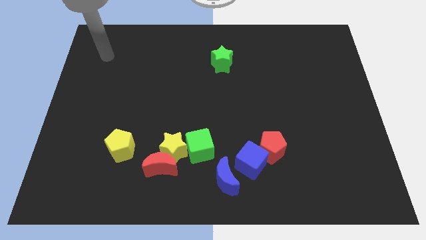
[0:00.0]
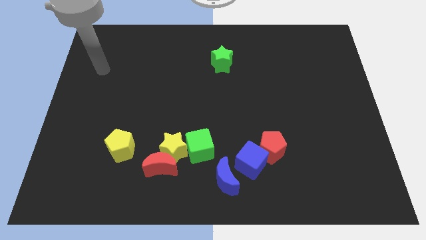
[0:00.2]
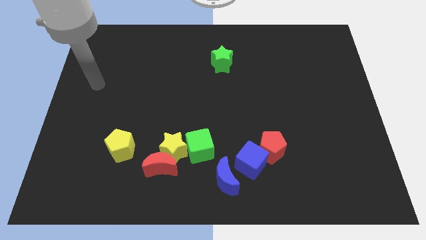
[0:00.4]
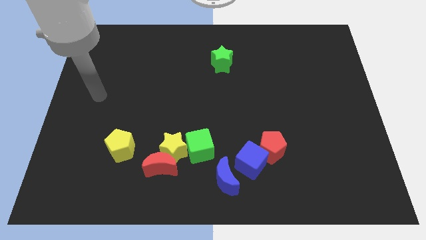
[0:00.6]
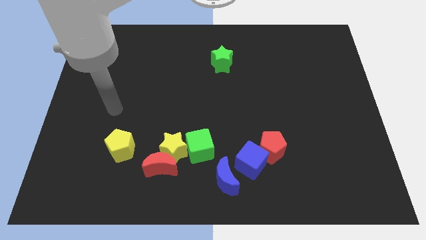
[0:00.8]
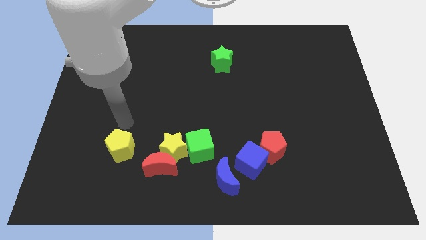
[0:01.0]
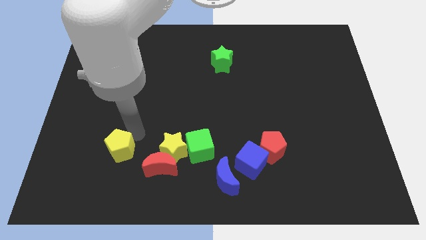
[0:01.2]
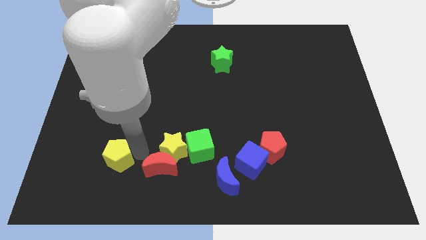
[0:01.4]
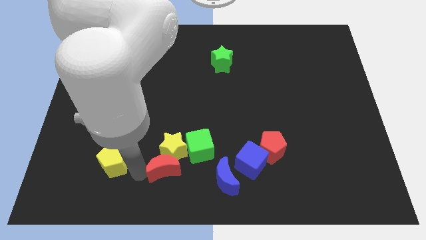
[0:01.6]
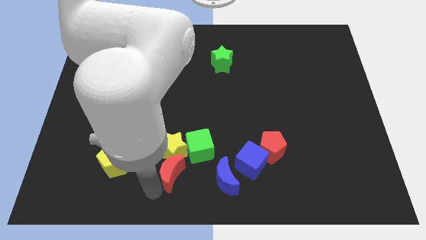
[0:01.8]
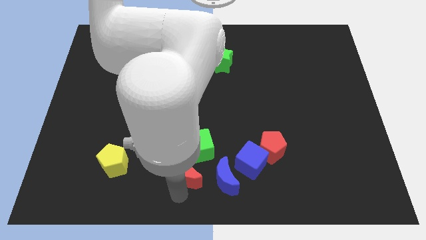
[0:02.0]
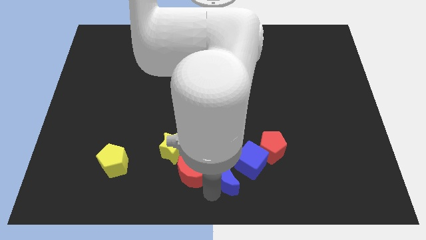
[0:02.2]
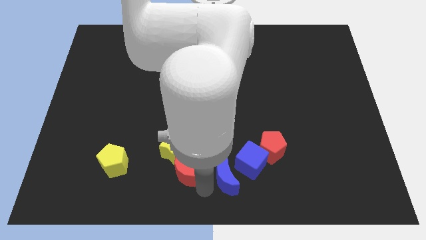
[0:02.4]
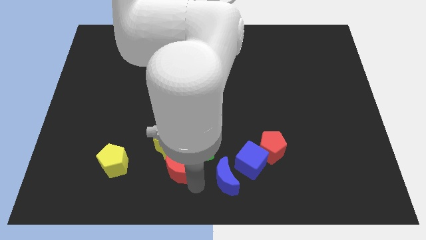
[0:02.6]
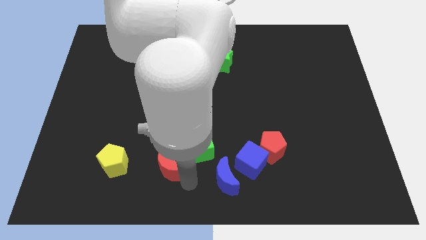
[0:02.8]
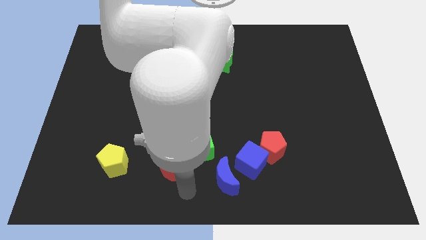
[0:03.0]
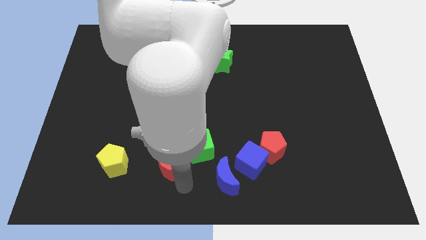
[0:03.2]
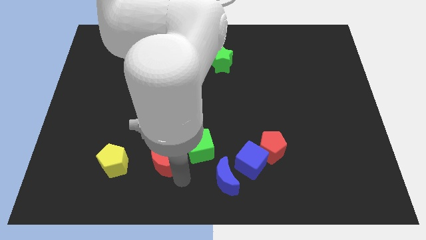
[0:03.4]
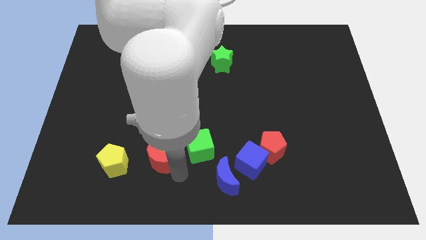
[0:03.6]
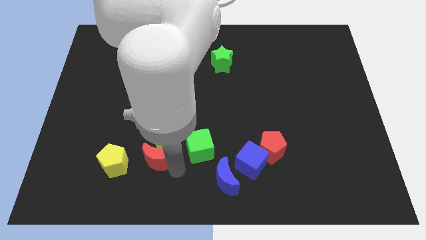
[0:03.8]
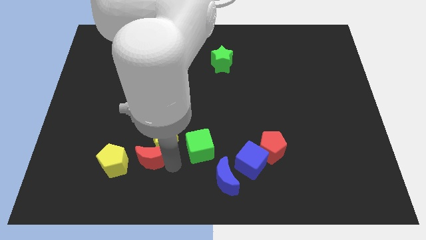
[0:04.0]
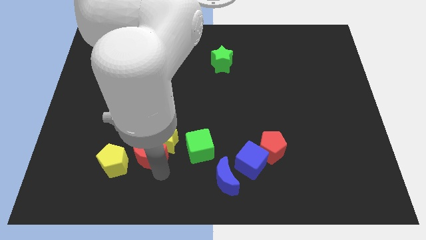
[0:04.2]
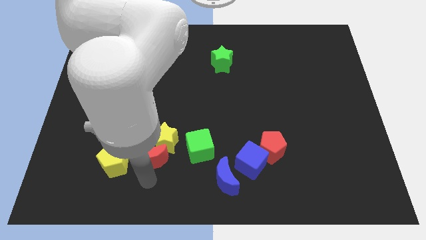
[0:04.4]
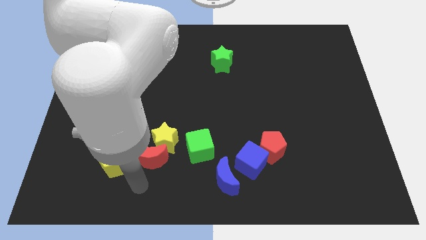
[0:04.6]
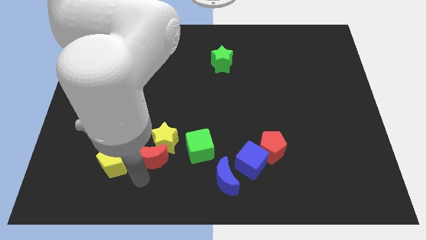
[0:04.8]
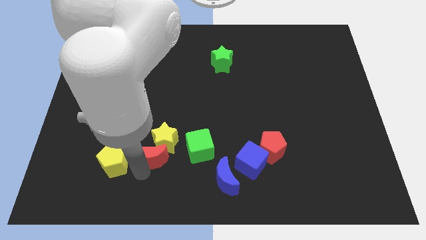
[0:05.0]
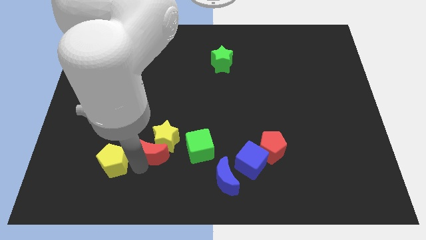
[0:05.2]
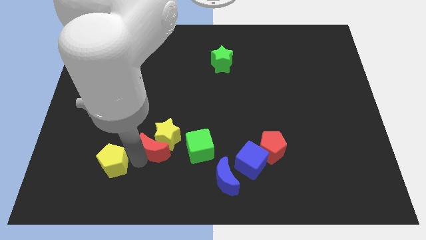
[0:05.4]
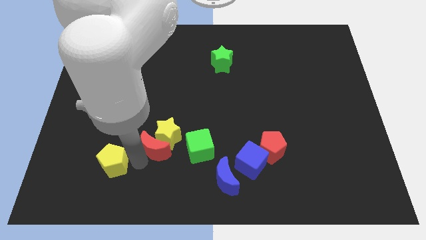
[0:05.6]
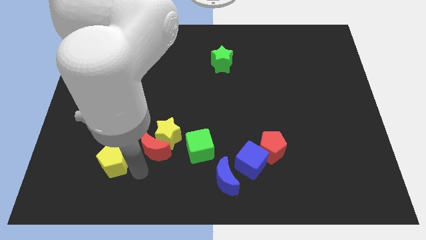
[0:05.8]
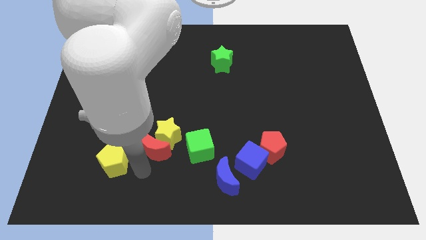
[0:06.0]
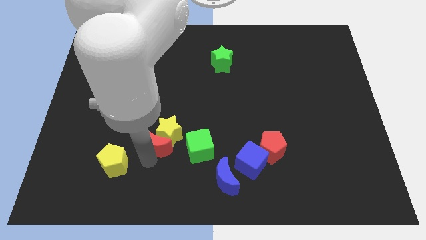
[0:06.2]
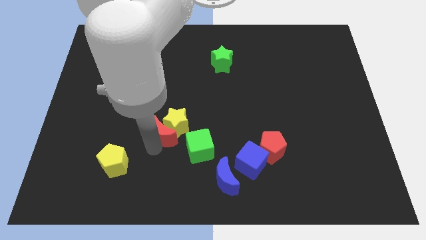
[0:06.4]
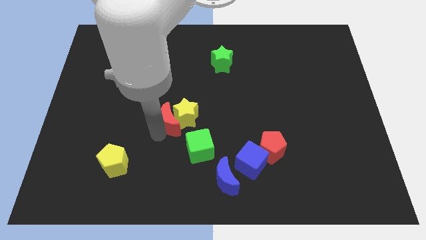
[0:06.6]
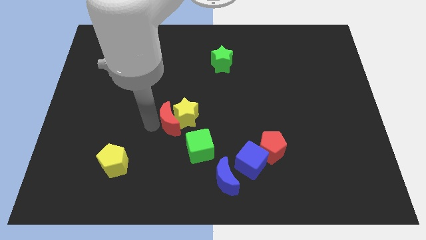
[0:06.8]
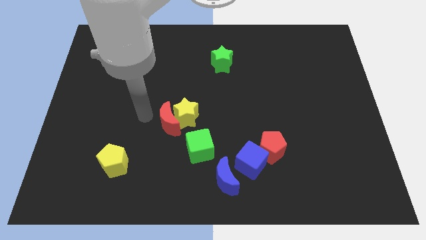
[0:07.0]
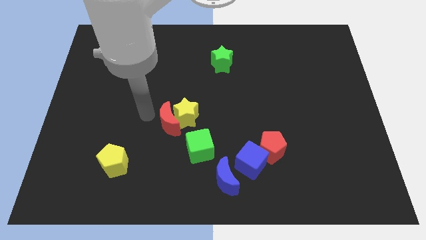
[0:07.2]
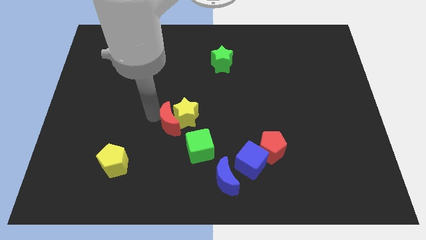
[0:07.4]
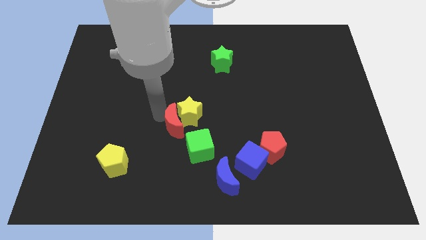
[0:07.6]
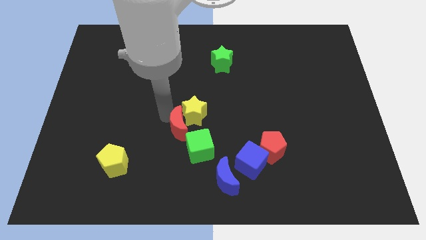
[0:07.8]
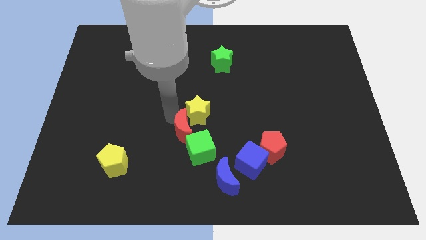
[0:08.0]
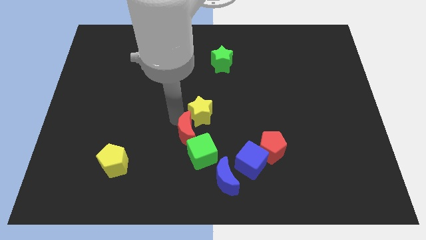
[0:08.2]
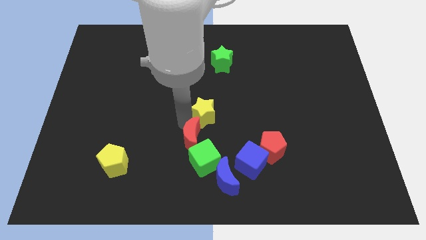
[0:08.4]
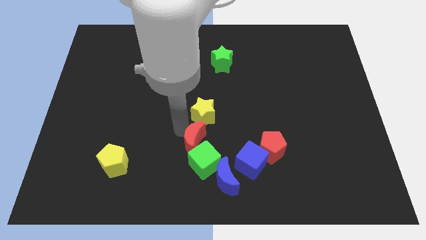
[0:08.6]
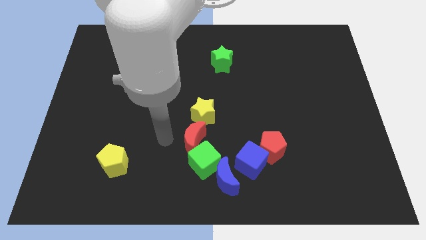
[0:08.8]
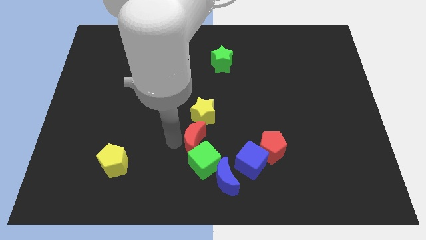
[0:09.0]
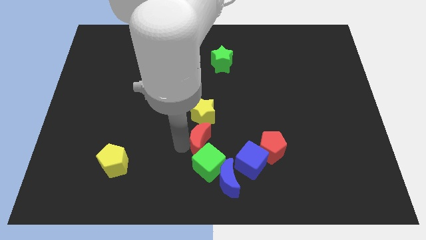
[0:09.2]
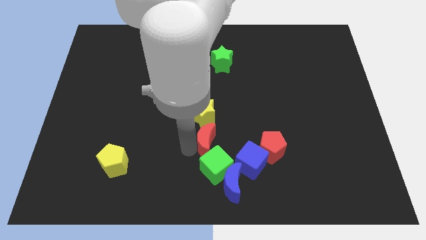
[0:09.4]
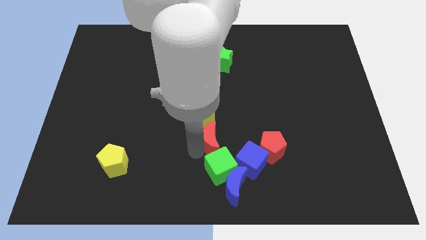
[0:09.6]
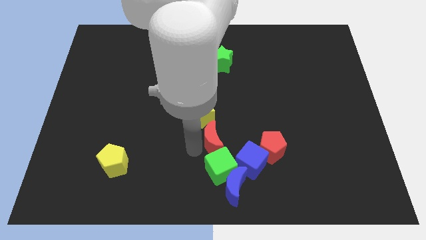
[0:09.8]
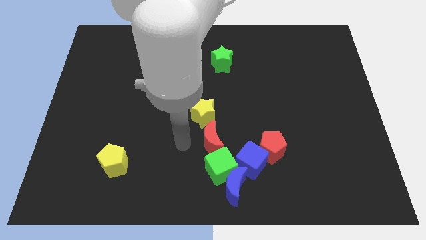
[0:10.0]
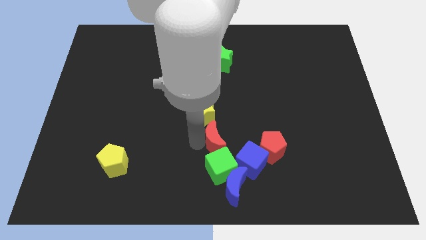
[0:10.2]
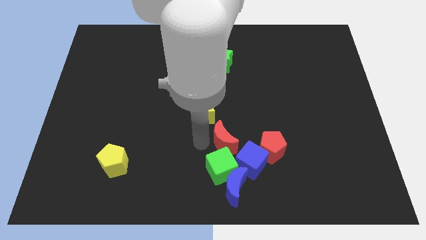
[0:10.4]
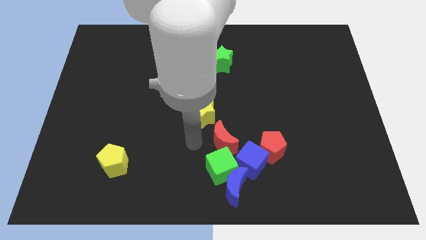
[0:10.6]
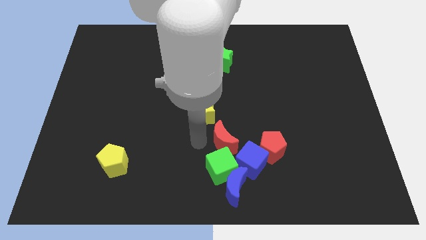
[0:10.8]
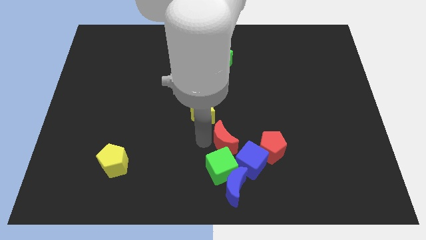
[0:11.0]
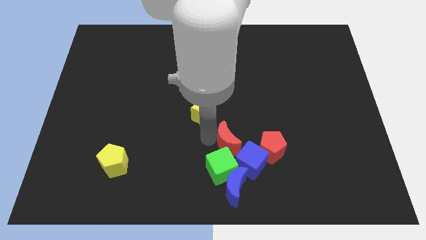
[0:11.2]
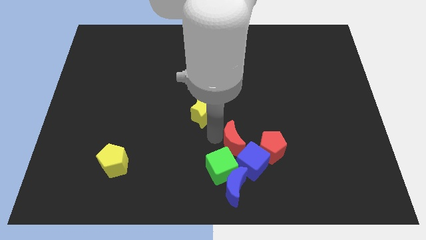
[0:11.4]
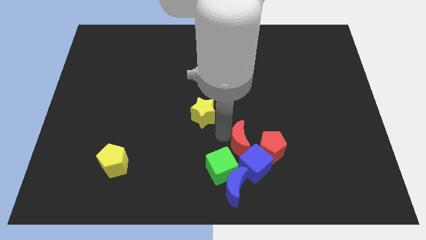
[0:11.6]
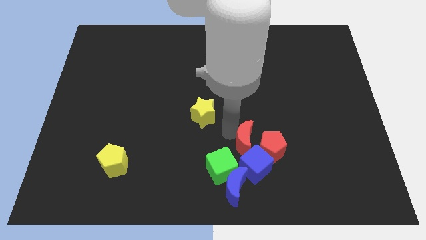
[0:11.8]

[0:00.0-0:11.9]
move the red moon close to the red pentagon

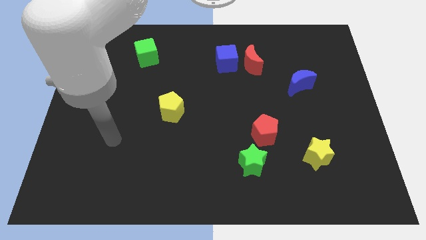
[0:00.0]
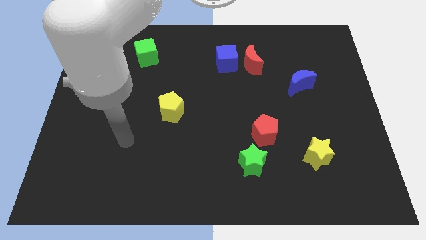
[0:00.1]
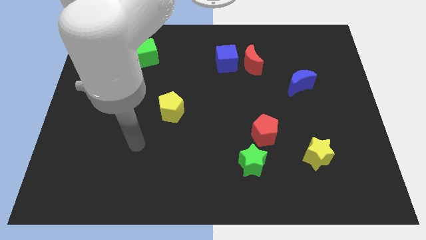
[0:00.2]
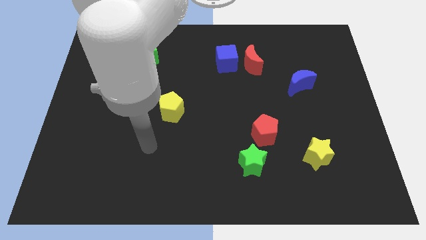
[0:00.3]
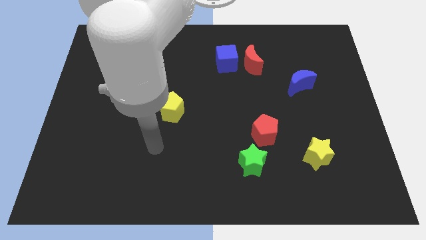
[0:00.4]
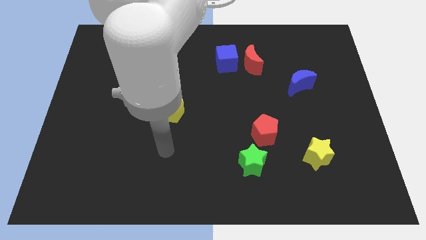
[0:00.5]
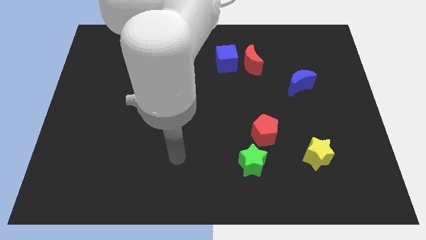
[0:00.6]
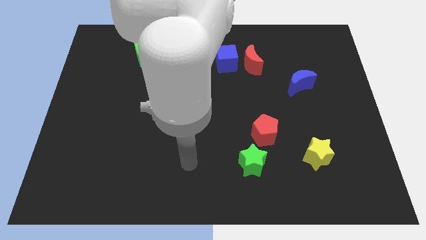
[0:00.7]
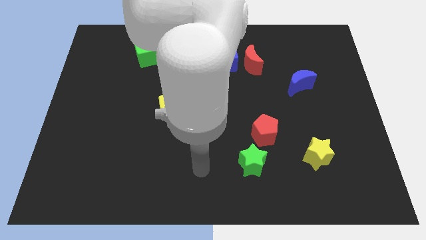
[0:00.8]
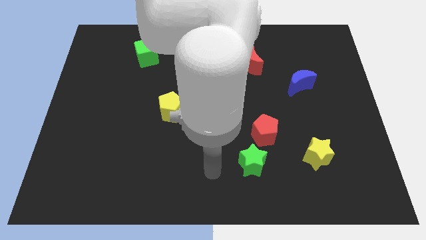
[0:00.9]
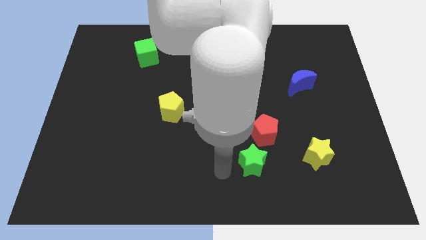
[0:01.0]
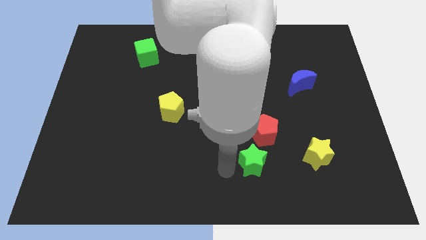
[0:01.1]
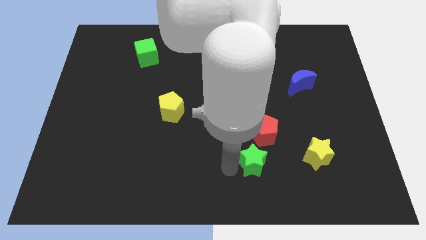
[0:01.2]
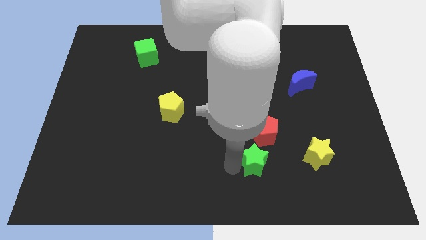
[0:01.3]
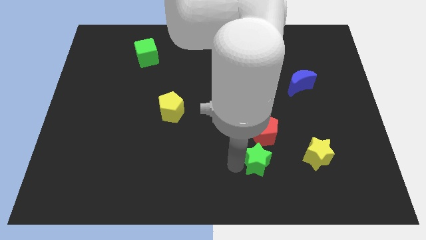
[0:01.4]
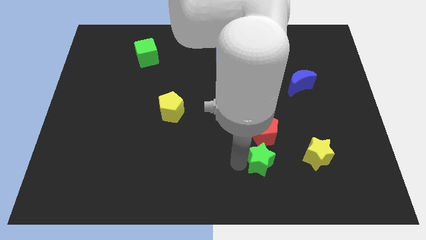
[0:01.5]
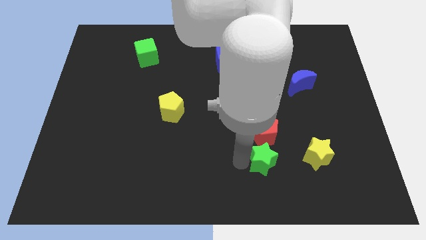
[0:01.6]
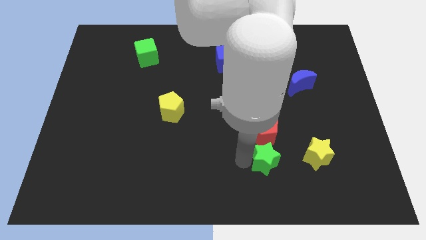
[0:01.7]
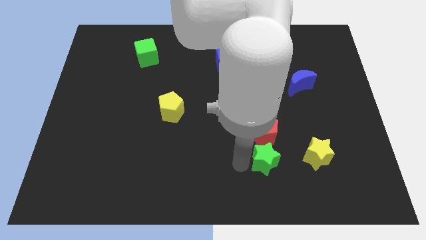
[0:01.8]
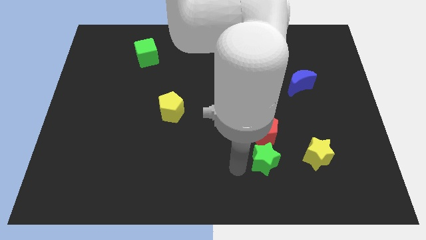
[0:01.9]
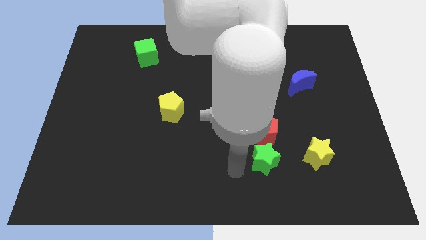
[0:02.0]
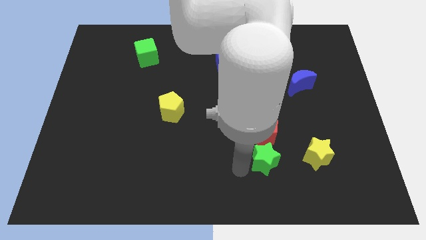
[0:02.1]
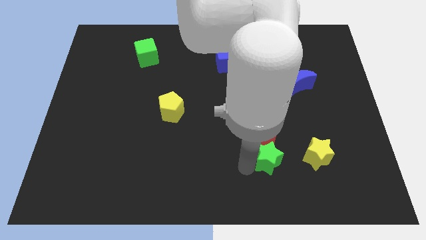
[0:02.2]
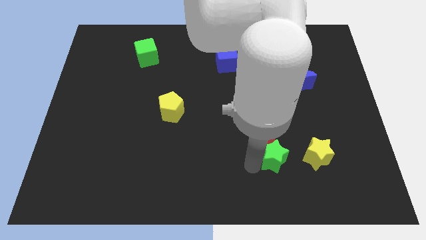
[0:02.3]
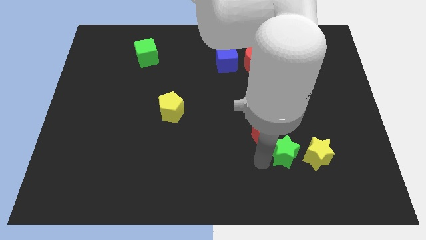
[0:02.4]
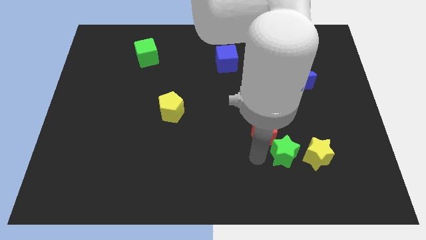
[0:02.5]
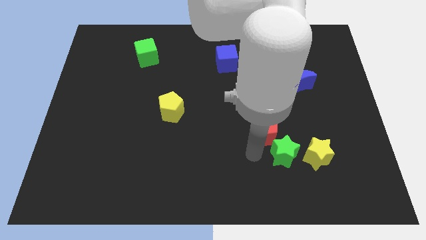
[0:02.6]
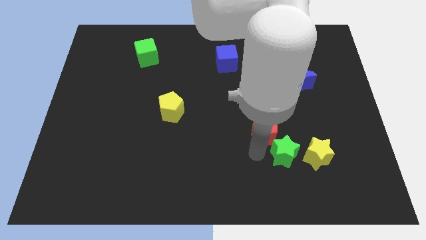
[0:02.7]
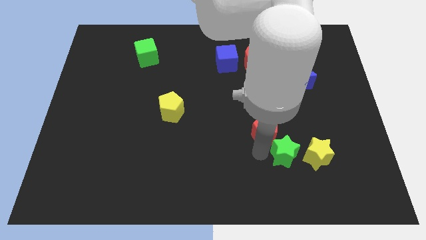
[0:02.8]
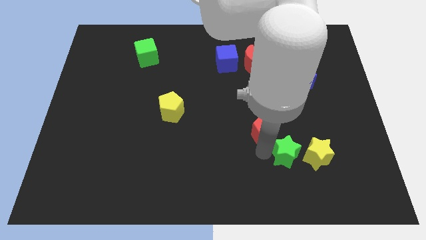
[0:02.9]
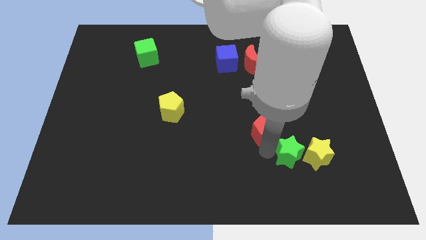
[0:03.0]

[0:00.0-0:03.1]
move the green star next to the yellow star
